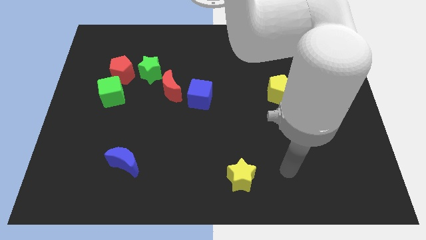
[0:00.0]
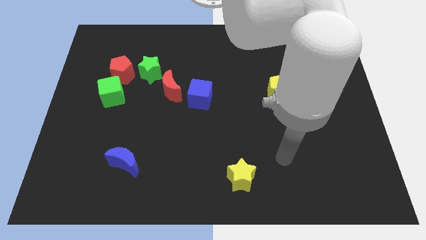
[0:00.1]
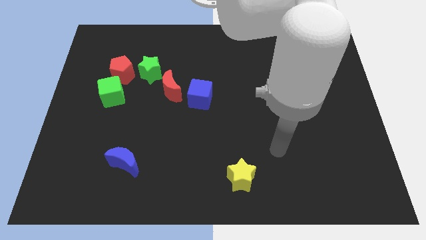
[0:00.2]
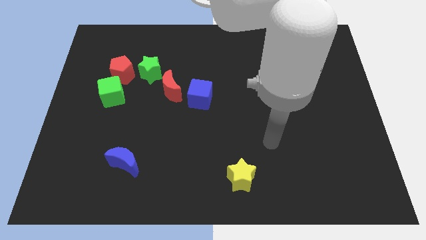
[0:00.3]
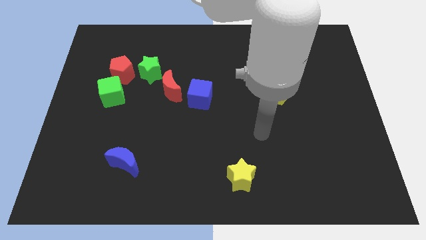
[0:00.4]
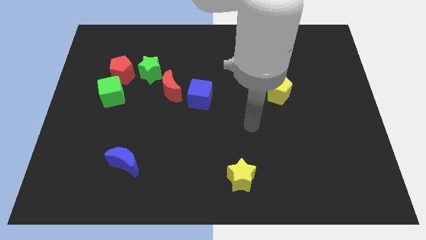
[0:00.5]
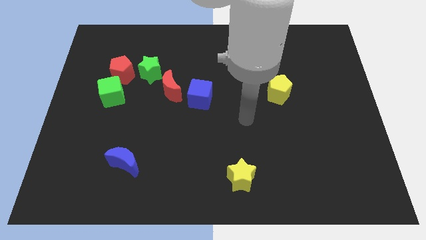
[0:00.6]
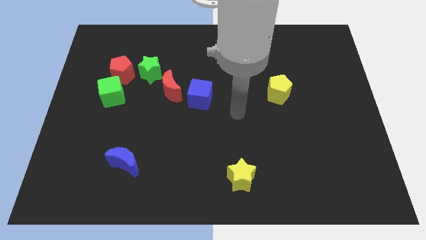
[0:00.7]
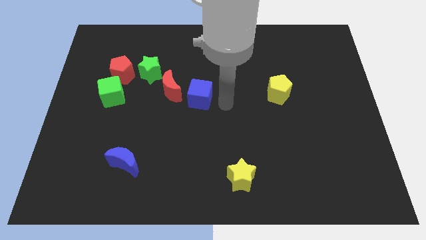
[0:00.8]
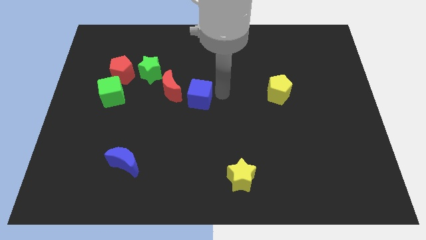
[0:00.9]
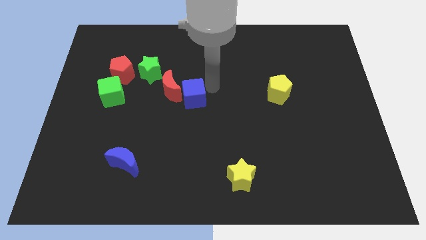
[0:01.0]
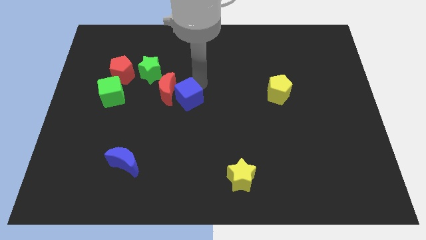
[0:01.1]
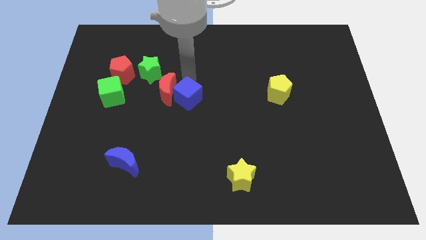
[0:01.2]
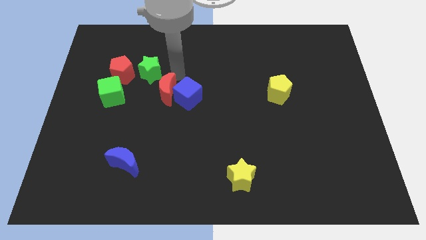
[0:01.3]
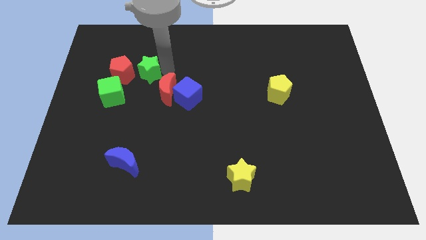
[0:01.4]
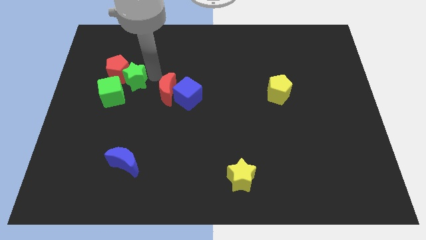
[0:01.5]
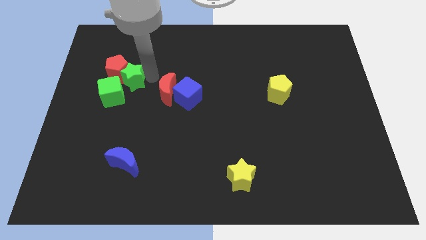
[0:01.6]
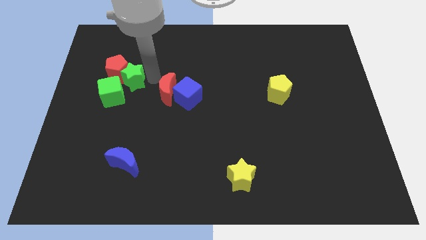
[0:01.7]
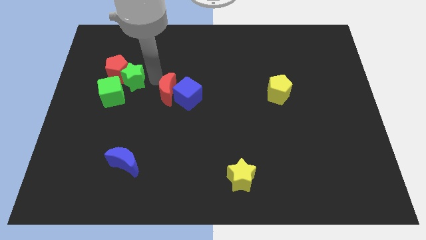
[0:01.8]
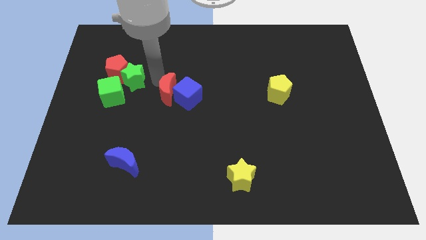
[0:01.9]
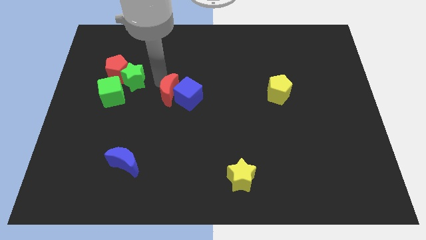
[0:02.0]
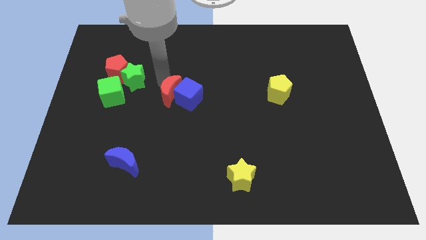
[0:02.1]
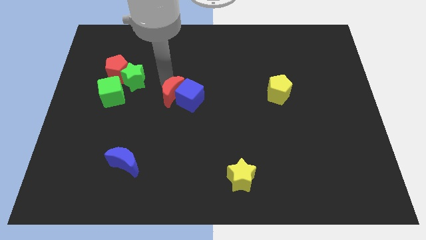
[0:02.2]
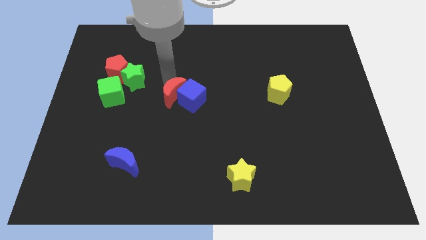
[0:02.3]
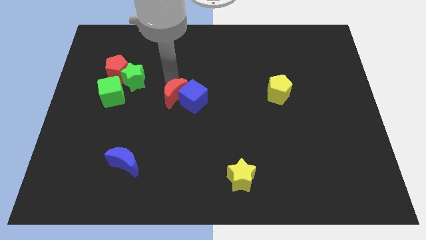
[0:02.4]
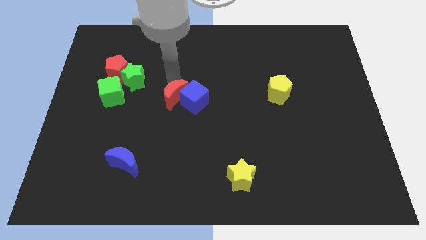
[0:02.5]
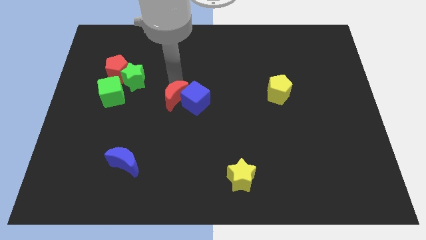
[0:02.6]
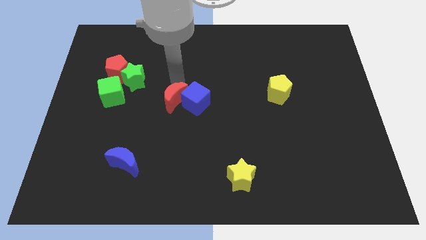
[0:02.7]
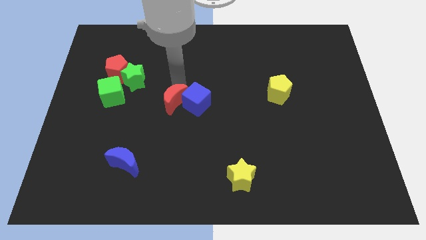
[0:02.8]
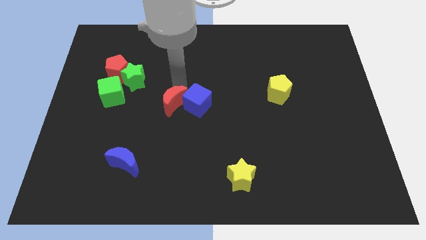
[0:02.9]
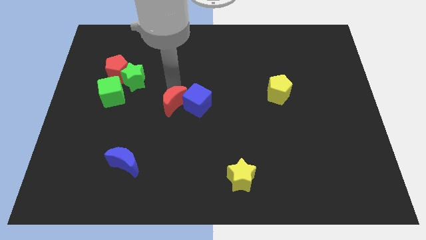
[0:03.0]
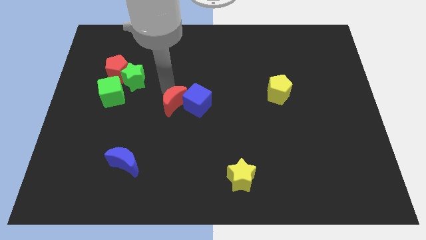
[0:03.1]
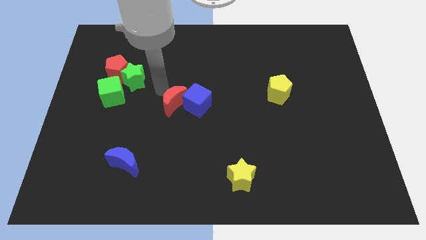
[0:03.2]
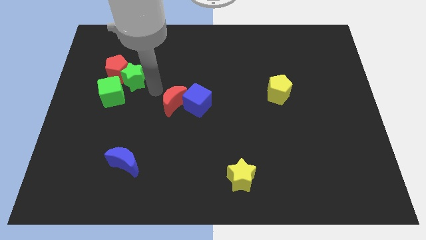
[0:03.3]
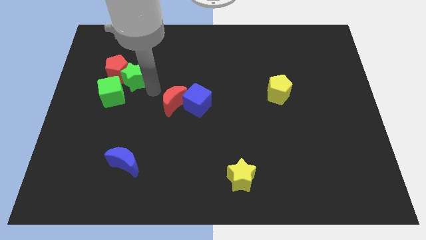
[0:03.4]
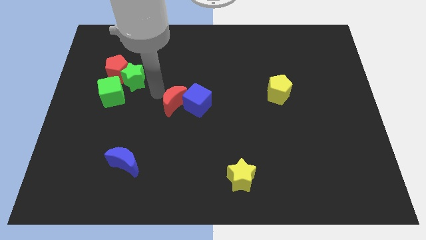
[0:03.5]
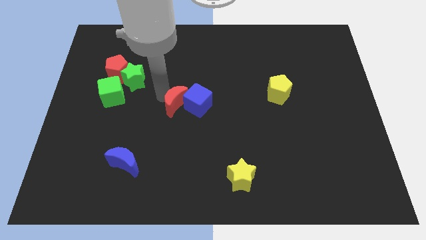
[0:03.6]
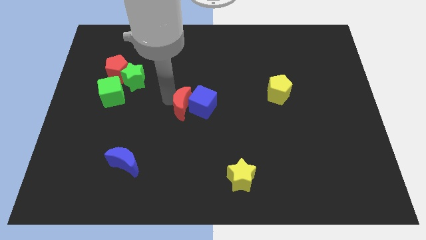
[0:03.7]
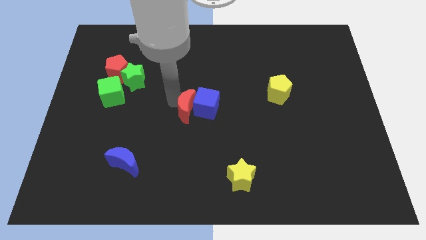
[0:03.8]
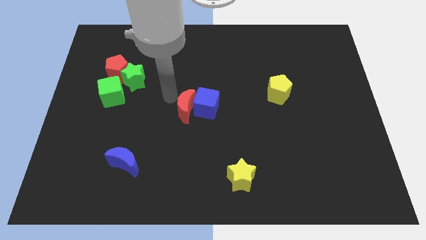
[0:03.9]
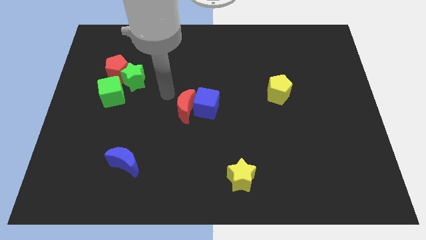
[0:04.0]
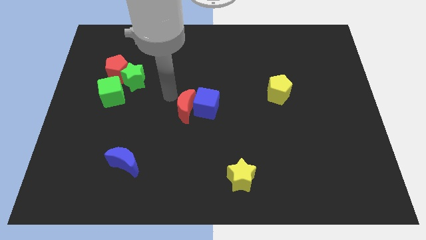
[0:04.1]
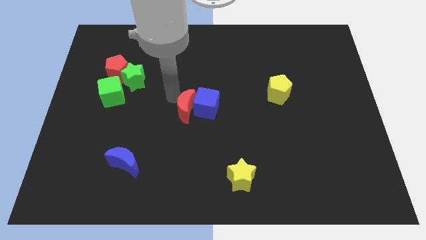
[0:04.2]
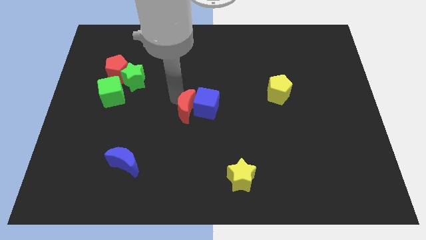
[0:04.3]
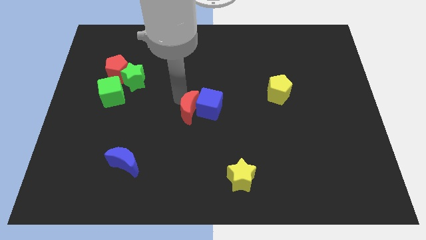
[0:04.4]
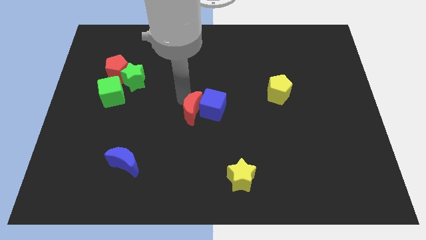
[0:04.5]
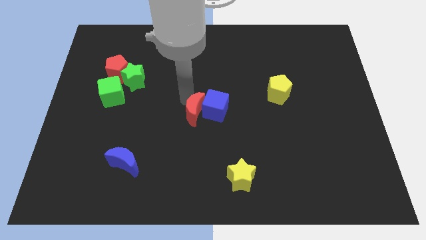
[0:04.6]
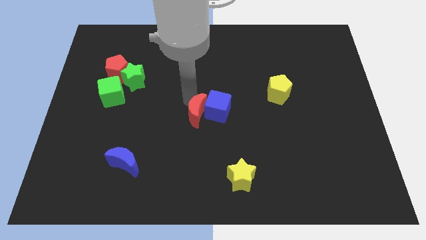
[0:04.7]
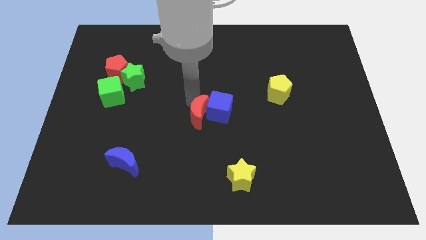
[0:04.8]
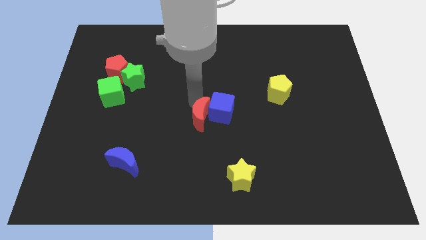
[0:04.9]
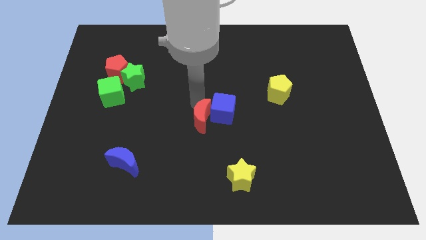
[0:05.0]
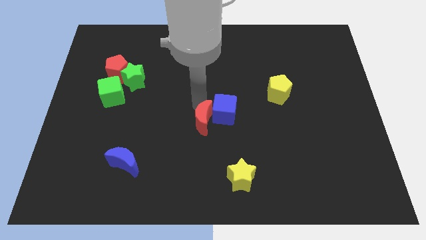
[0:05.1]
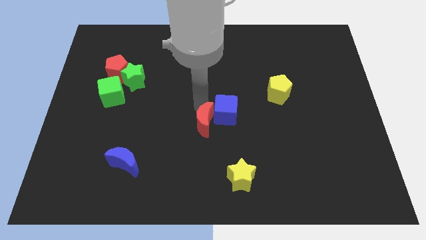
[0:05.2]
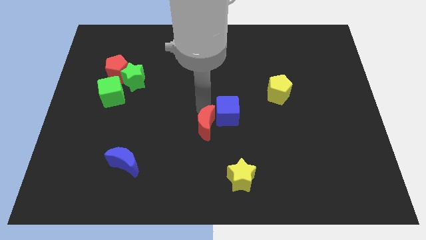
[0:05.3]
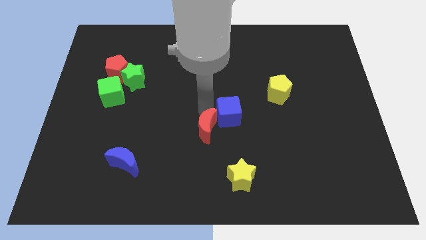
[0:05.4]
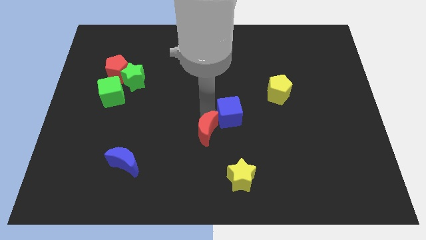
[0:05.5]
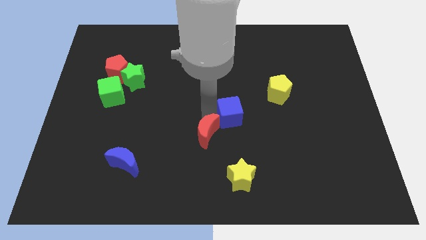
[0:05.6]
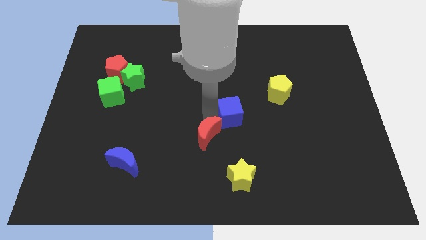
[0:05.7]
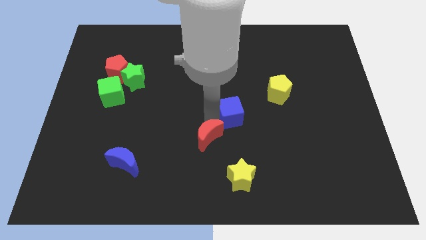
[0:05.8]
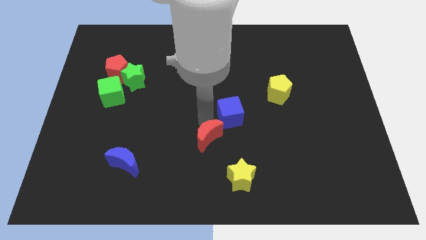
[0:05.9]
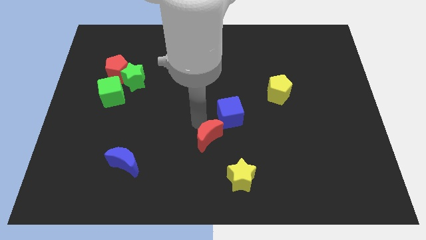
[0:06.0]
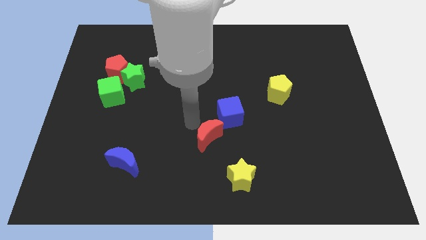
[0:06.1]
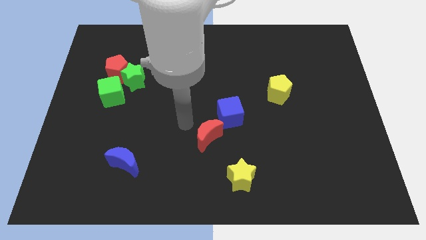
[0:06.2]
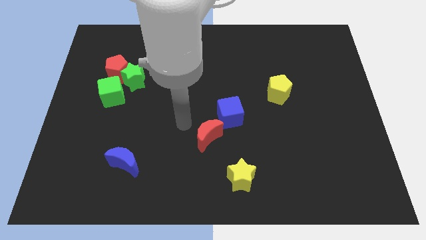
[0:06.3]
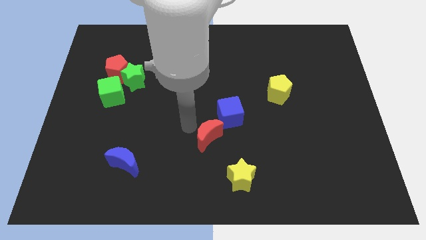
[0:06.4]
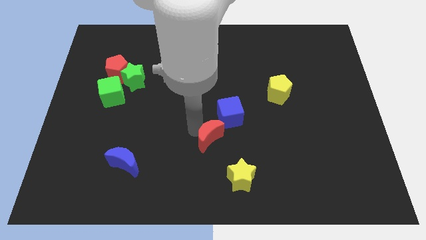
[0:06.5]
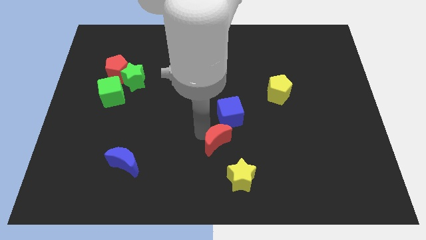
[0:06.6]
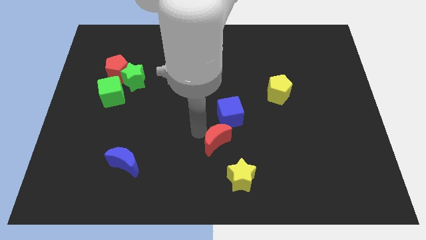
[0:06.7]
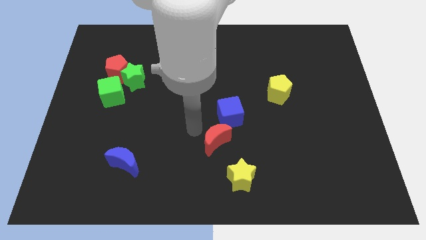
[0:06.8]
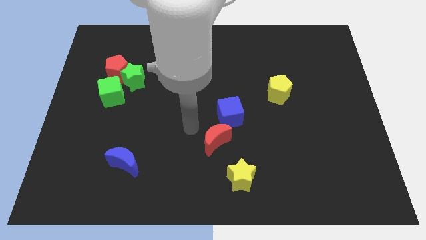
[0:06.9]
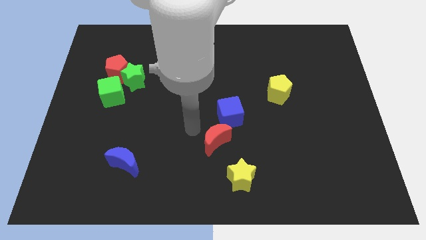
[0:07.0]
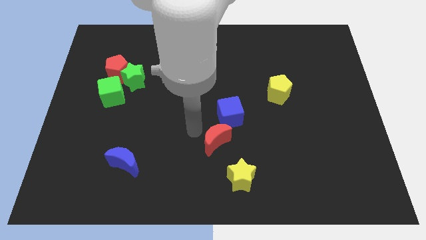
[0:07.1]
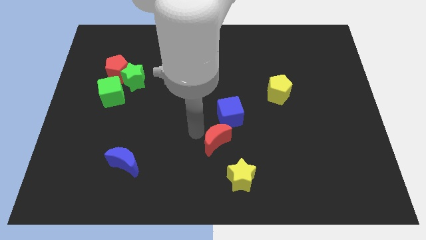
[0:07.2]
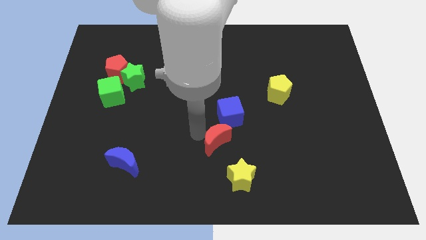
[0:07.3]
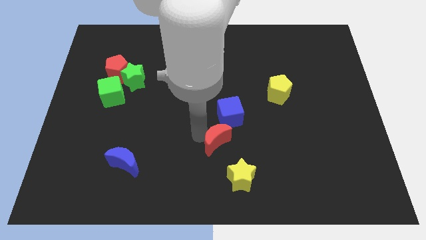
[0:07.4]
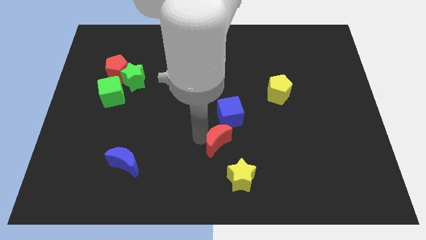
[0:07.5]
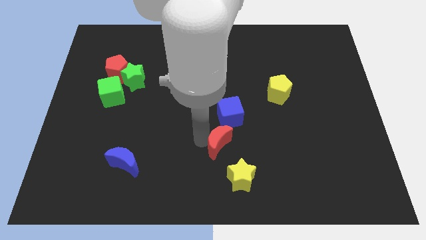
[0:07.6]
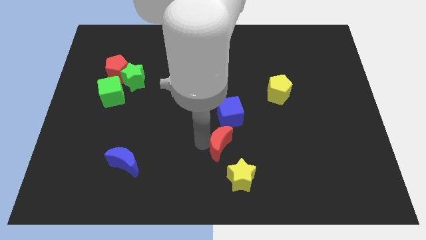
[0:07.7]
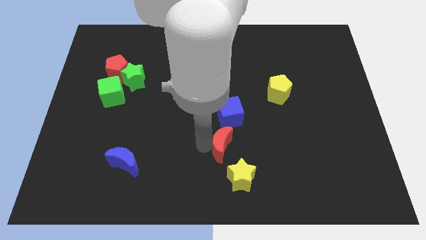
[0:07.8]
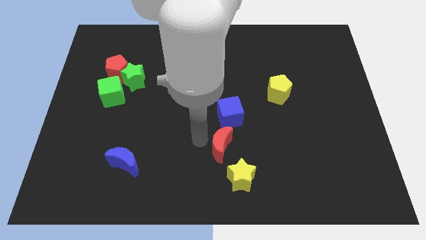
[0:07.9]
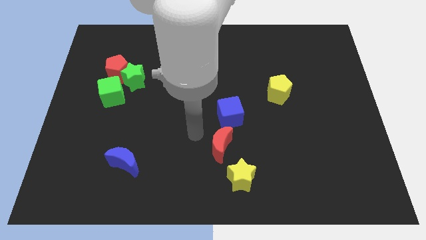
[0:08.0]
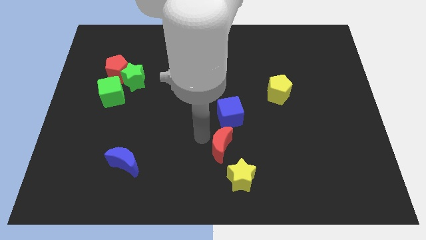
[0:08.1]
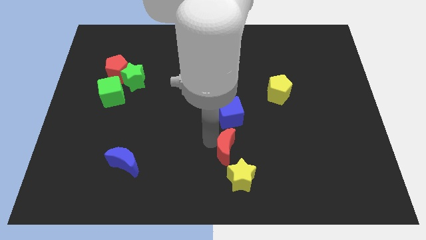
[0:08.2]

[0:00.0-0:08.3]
slide the red moon downwards and right

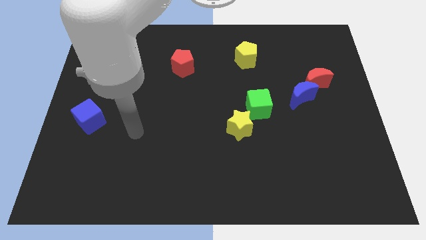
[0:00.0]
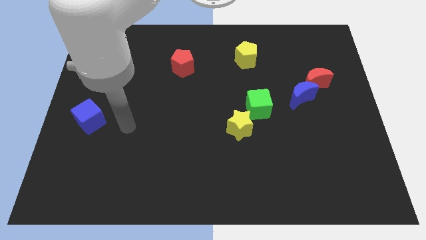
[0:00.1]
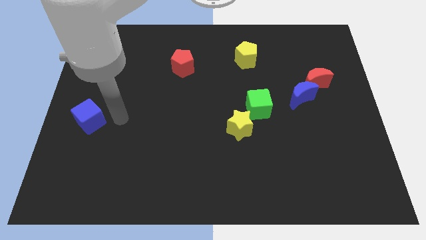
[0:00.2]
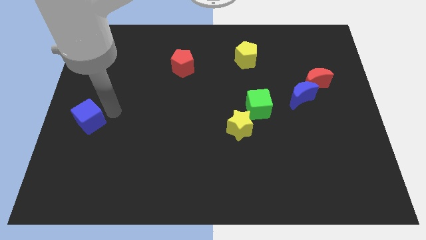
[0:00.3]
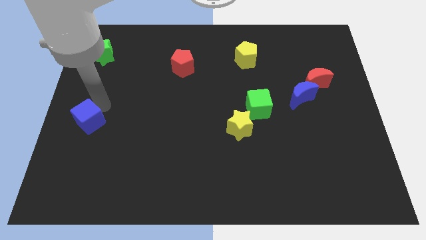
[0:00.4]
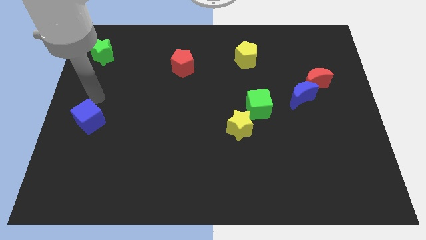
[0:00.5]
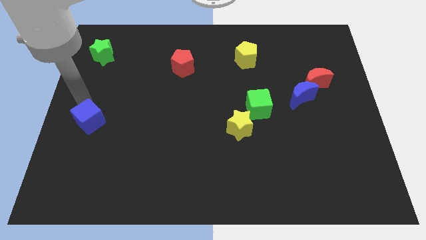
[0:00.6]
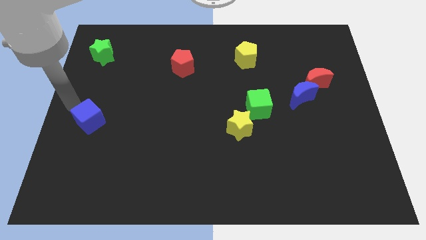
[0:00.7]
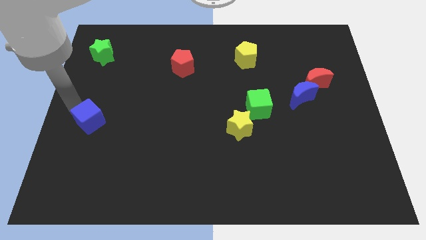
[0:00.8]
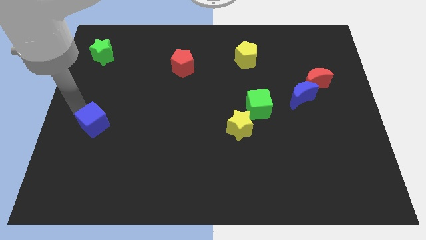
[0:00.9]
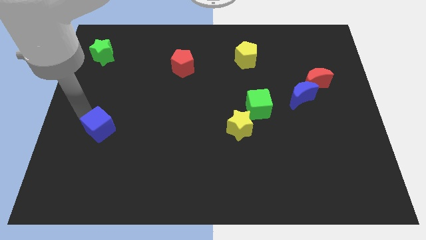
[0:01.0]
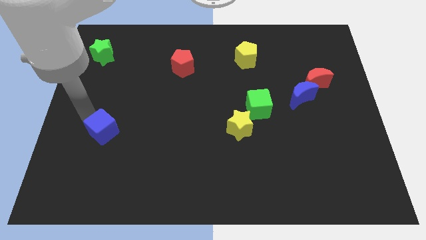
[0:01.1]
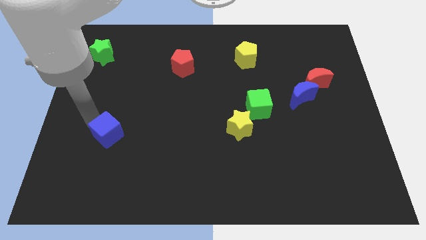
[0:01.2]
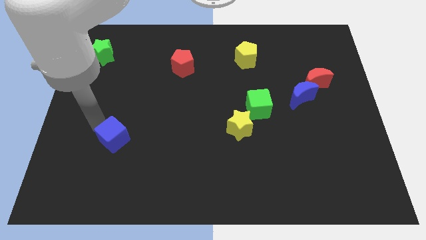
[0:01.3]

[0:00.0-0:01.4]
slide the blue cube diagonally down and right a little
